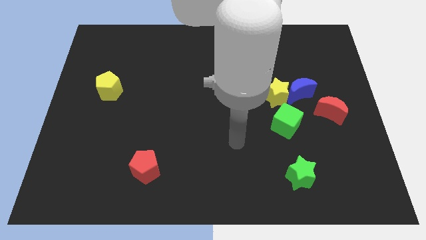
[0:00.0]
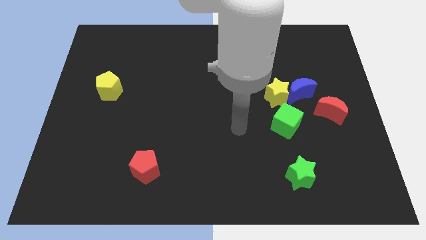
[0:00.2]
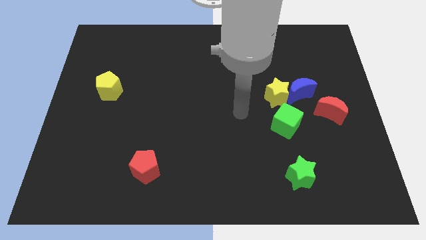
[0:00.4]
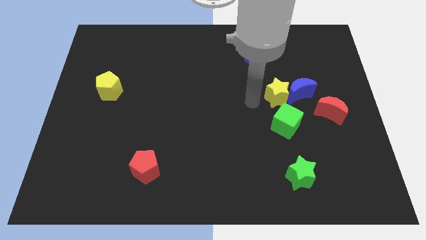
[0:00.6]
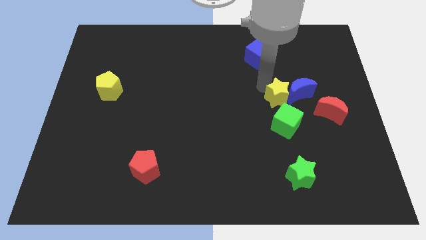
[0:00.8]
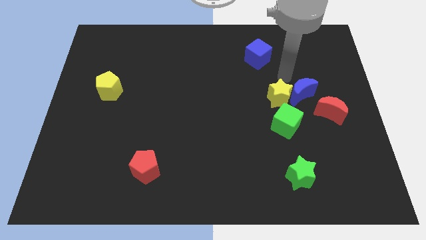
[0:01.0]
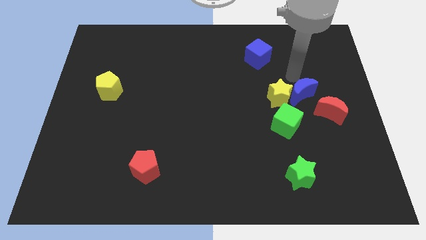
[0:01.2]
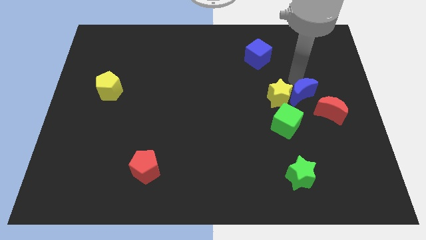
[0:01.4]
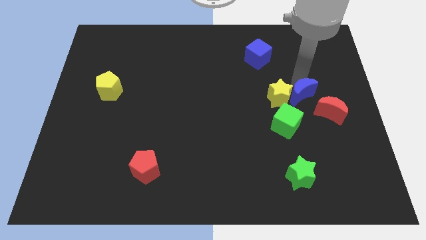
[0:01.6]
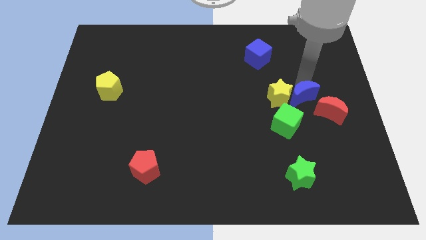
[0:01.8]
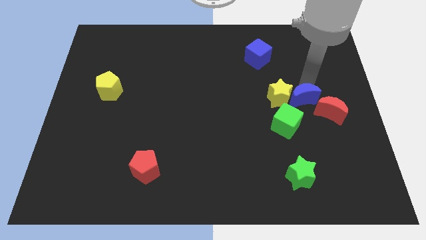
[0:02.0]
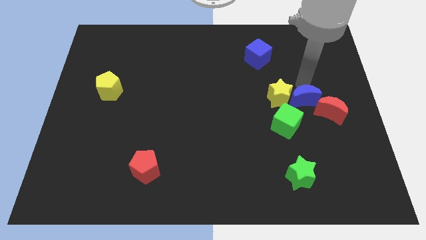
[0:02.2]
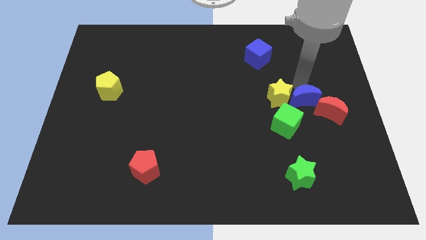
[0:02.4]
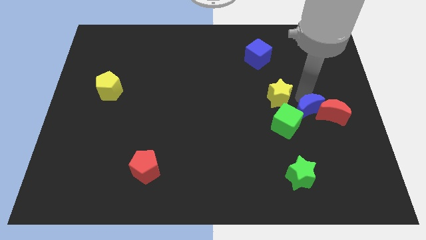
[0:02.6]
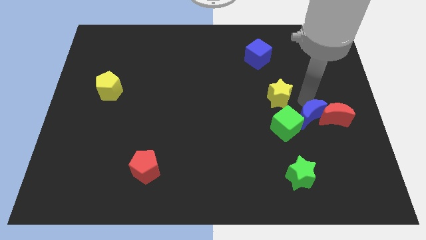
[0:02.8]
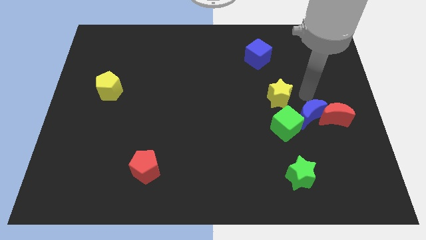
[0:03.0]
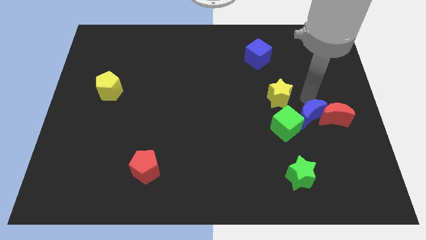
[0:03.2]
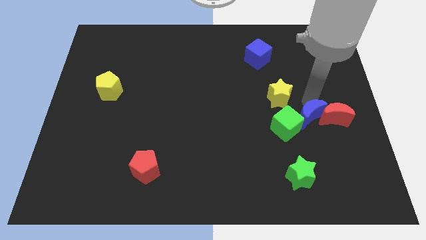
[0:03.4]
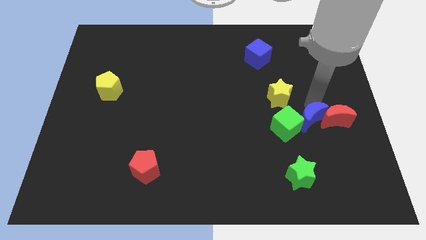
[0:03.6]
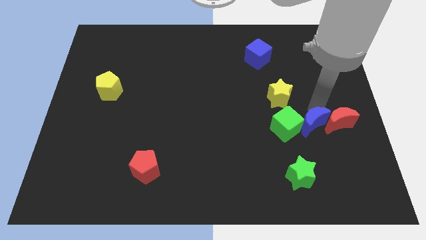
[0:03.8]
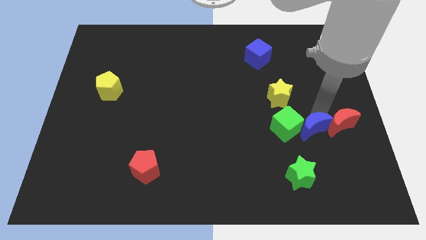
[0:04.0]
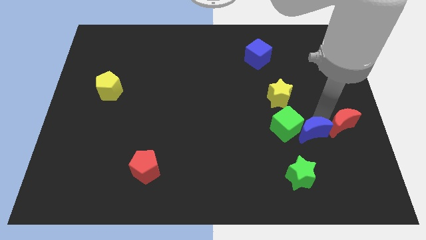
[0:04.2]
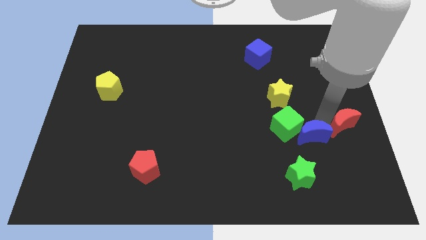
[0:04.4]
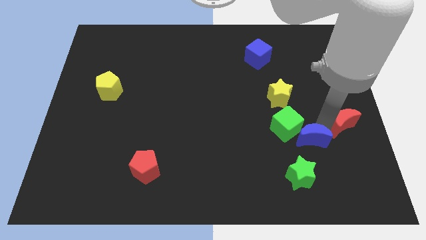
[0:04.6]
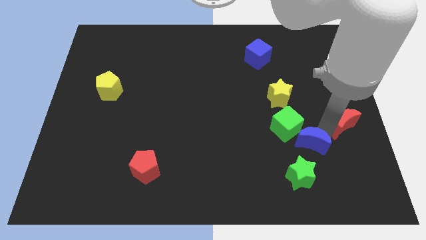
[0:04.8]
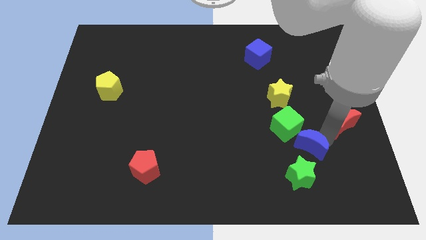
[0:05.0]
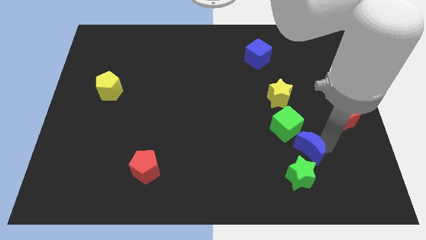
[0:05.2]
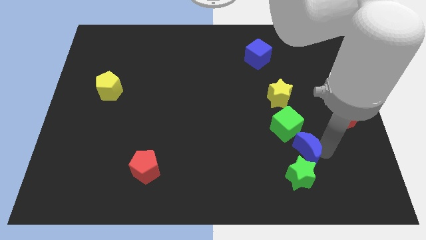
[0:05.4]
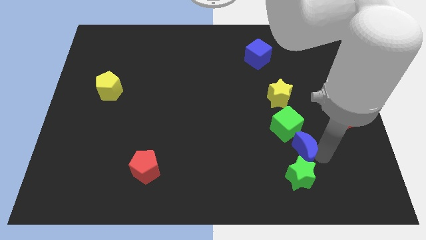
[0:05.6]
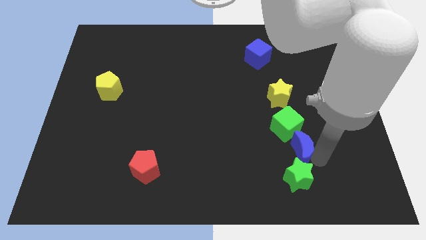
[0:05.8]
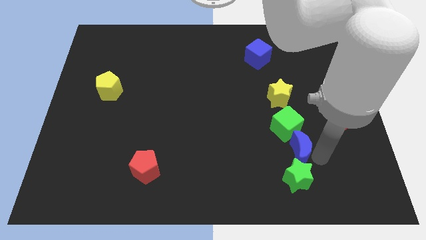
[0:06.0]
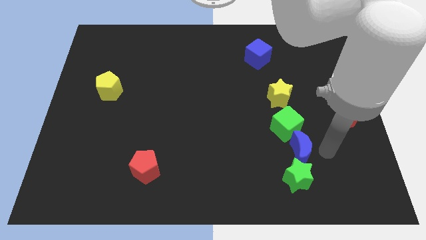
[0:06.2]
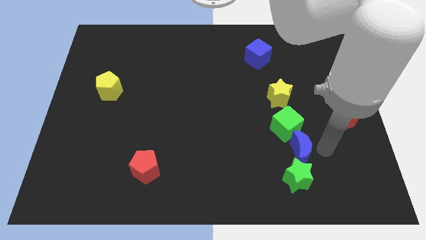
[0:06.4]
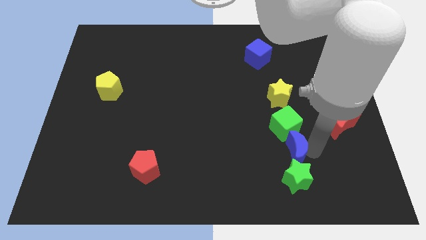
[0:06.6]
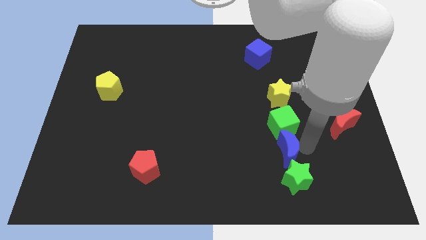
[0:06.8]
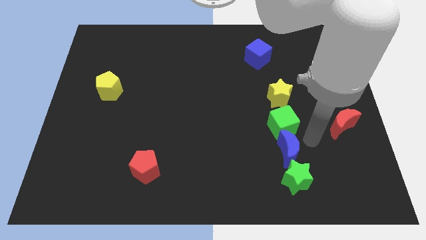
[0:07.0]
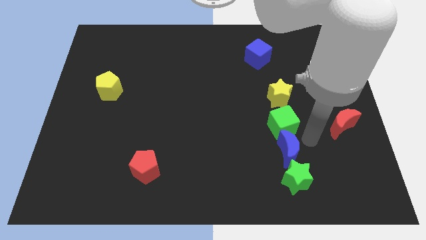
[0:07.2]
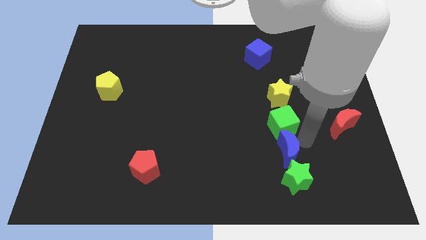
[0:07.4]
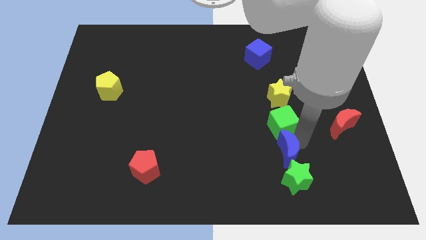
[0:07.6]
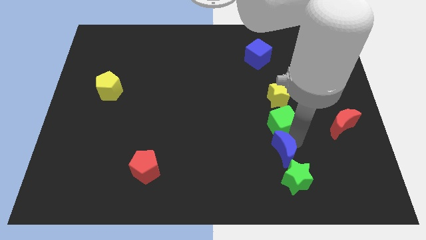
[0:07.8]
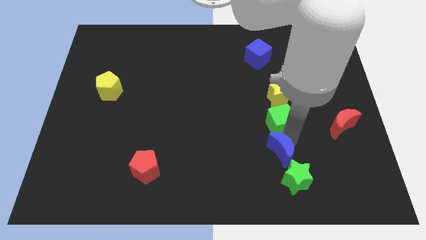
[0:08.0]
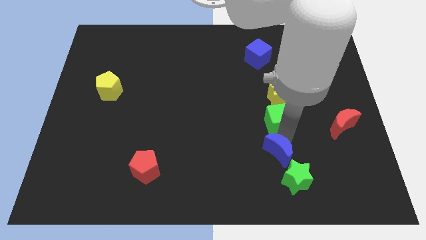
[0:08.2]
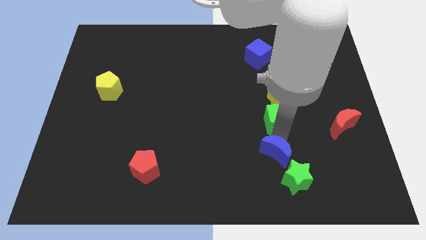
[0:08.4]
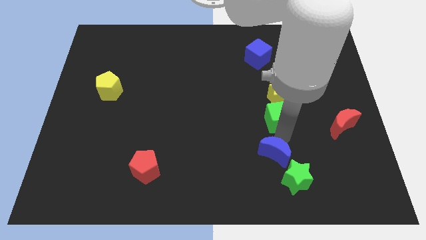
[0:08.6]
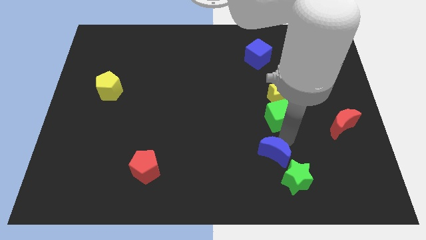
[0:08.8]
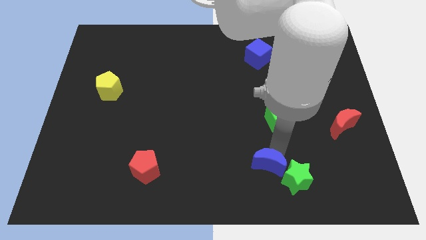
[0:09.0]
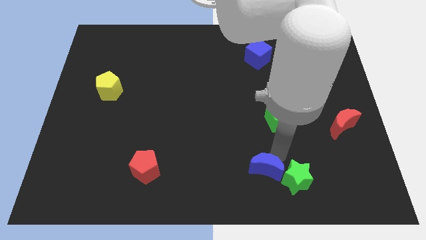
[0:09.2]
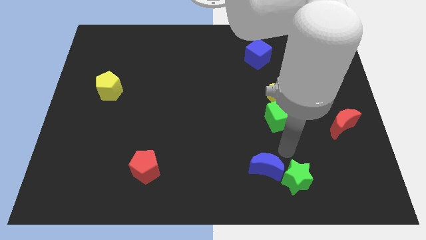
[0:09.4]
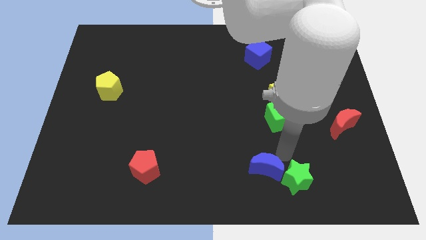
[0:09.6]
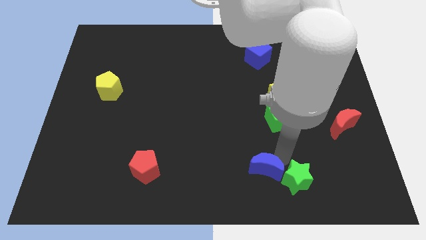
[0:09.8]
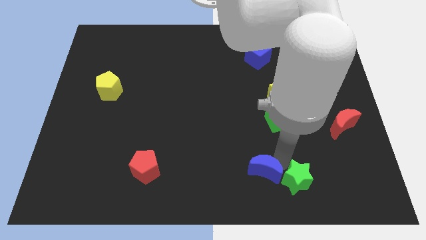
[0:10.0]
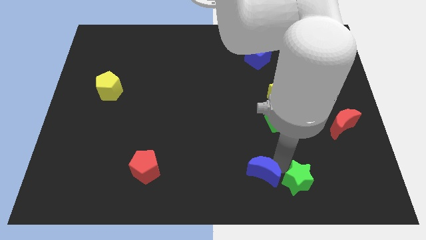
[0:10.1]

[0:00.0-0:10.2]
slide the blue moon to the bottom

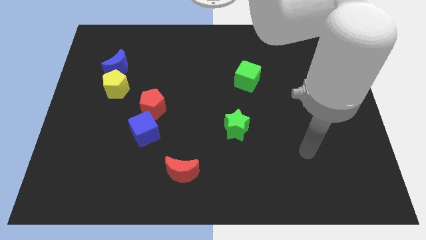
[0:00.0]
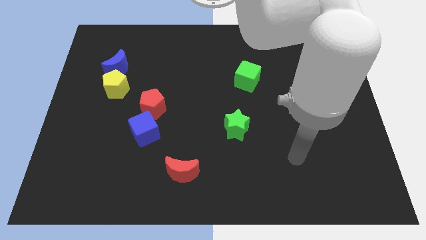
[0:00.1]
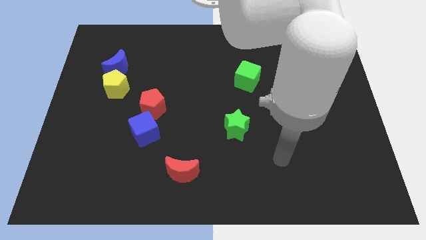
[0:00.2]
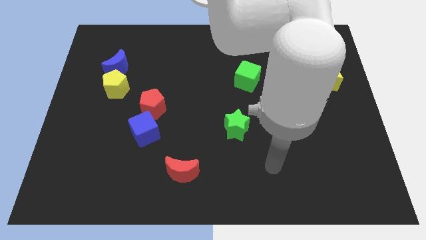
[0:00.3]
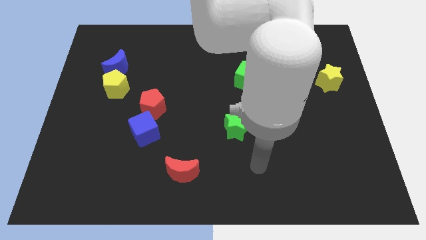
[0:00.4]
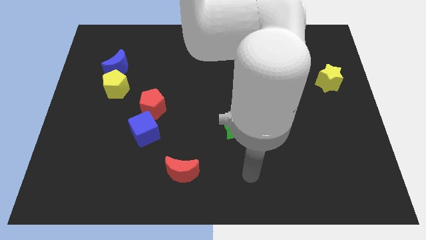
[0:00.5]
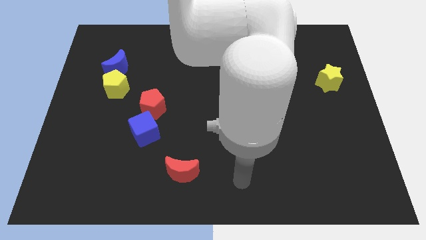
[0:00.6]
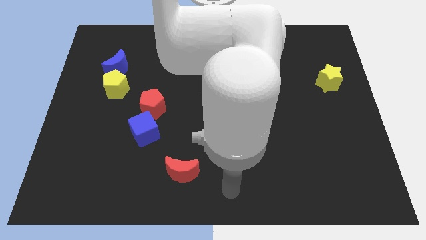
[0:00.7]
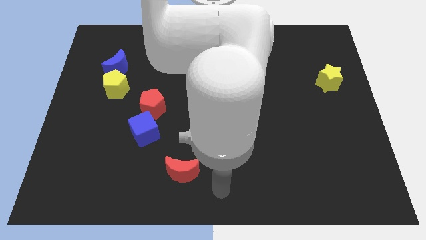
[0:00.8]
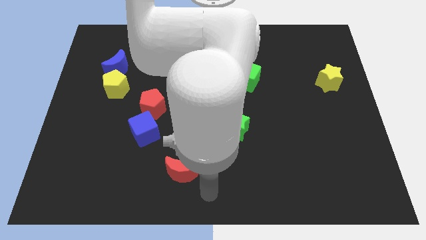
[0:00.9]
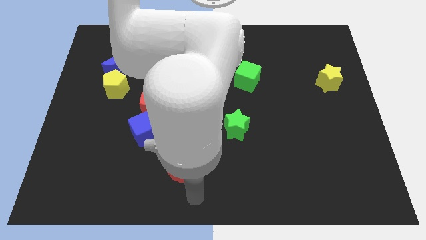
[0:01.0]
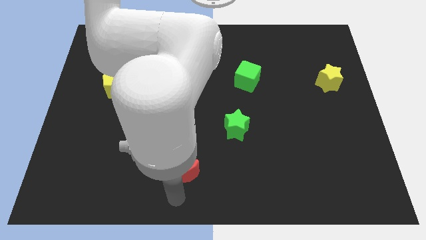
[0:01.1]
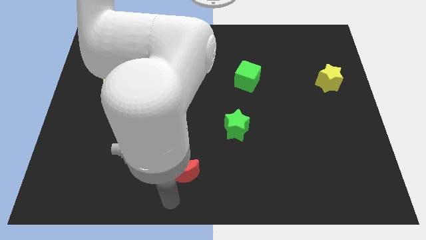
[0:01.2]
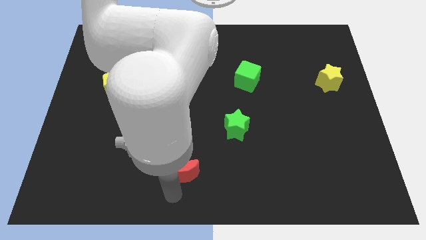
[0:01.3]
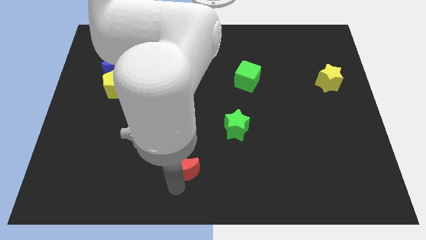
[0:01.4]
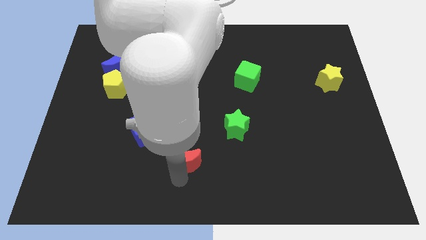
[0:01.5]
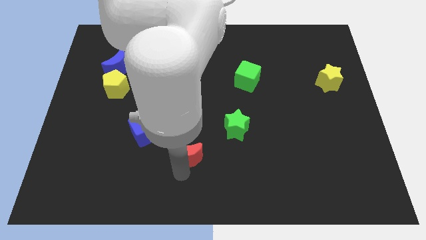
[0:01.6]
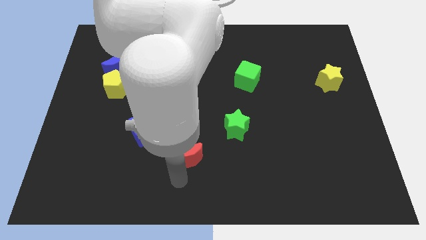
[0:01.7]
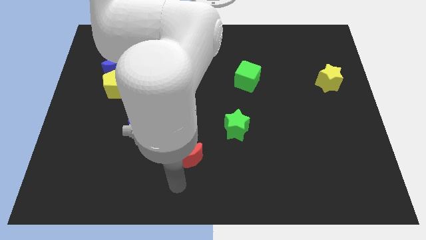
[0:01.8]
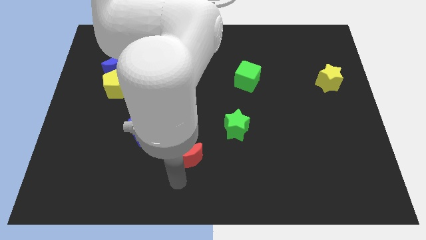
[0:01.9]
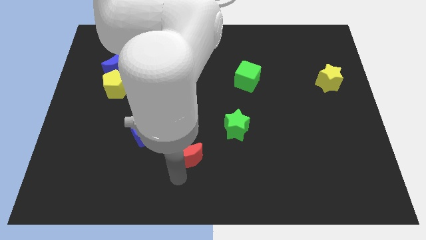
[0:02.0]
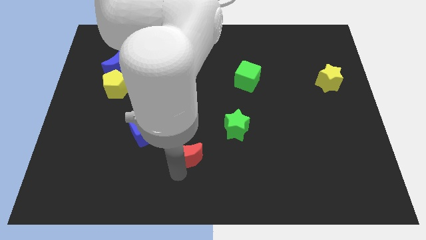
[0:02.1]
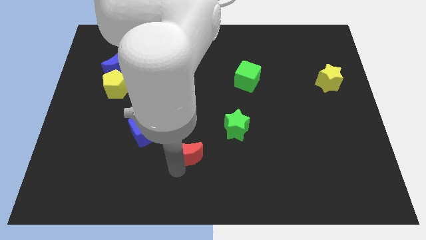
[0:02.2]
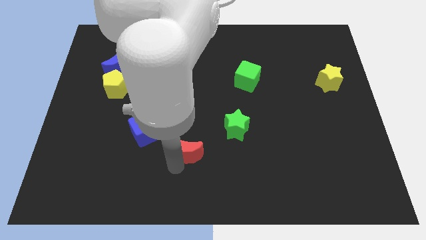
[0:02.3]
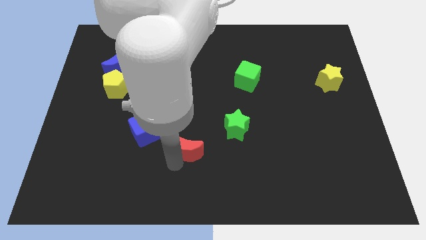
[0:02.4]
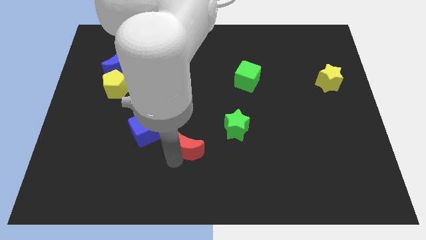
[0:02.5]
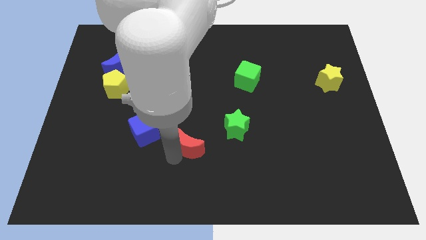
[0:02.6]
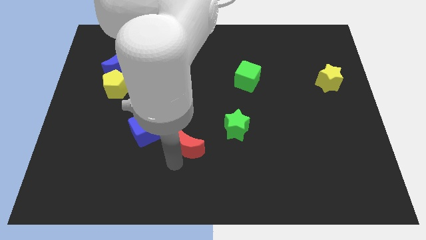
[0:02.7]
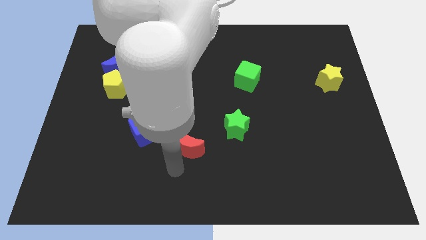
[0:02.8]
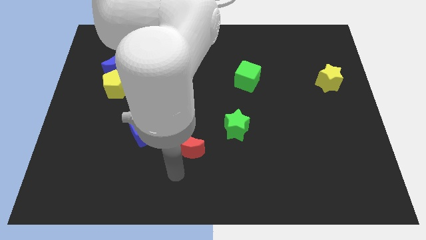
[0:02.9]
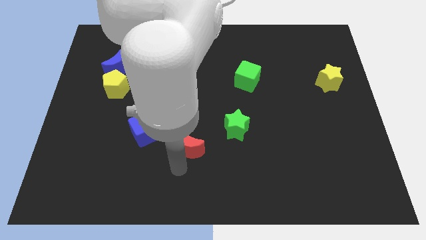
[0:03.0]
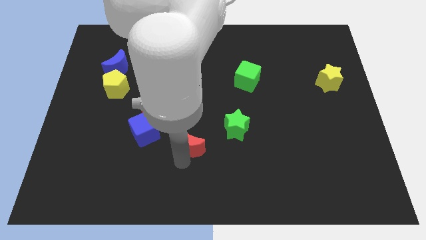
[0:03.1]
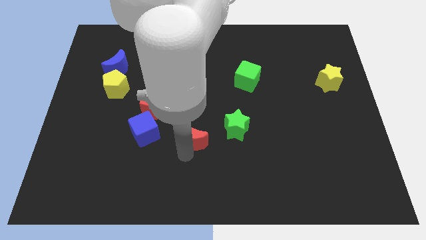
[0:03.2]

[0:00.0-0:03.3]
slide the red moon to the center
